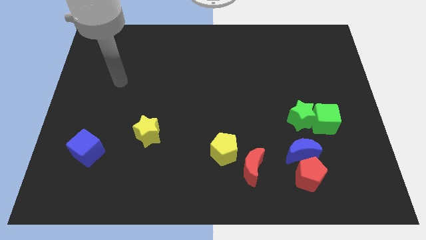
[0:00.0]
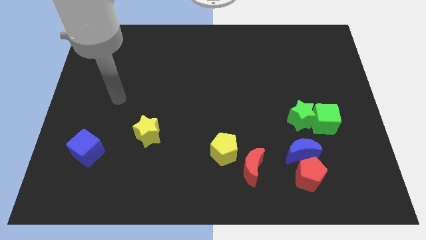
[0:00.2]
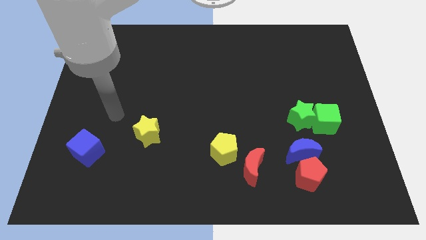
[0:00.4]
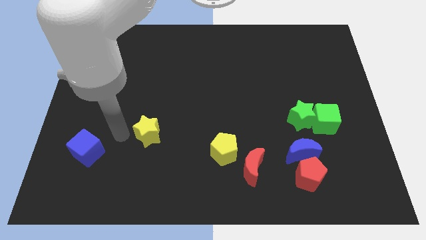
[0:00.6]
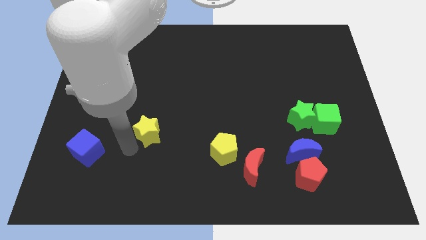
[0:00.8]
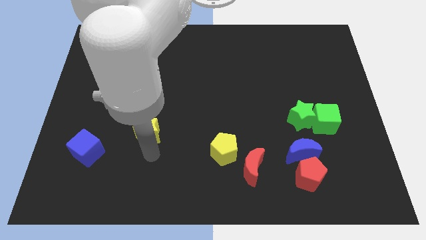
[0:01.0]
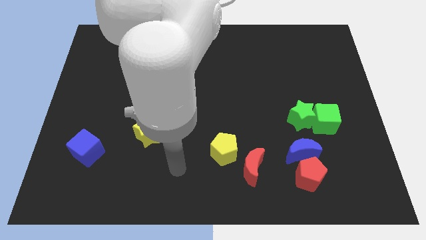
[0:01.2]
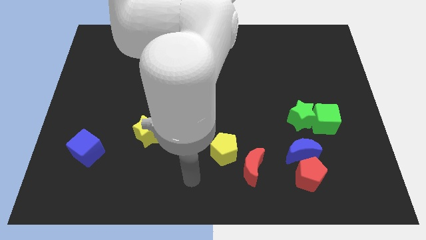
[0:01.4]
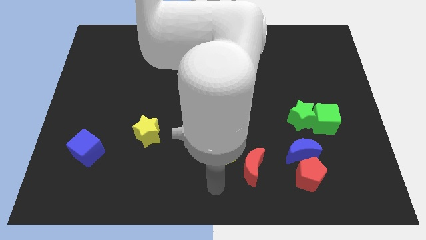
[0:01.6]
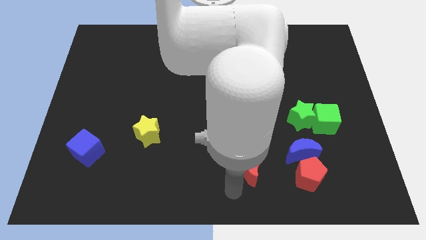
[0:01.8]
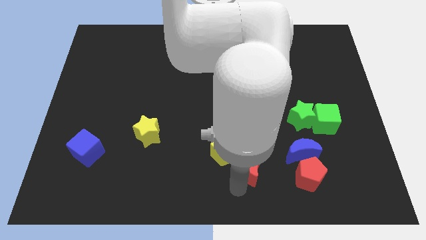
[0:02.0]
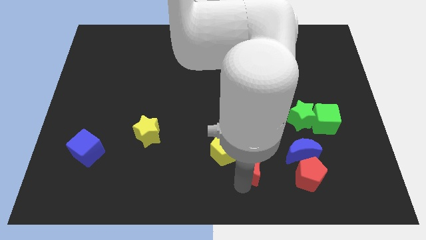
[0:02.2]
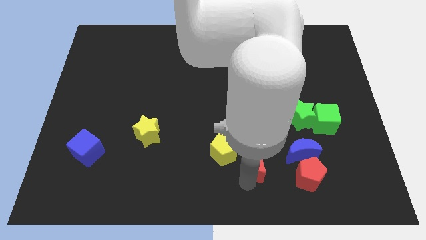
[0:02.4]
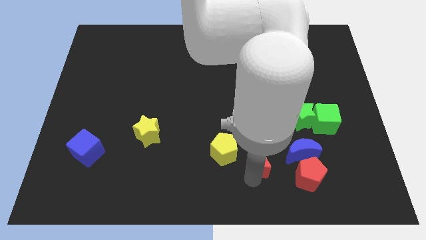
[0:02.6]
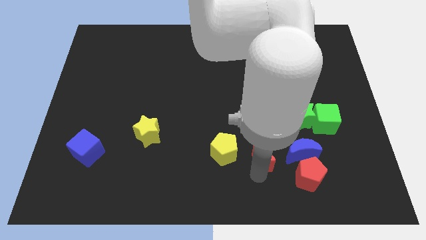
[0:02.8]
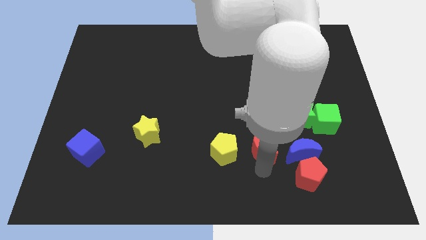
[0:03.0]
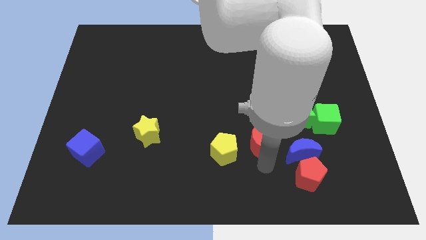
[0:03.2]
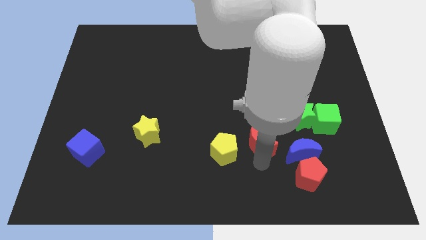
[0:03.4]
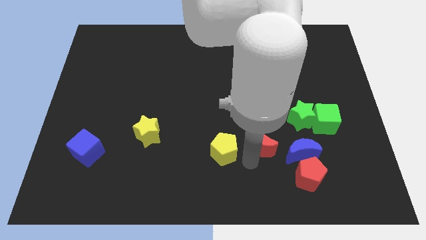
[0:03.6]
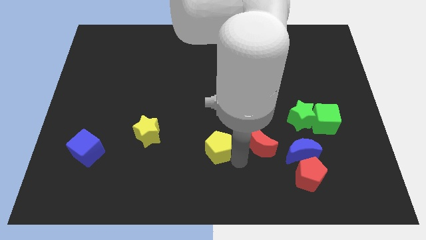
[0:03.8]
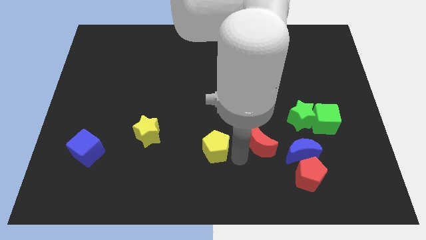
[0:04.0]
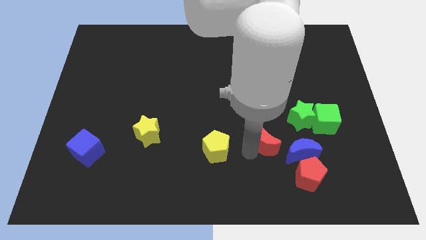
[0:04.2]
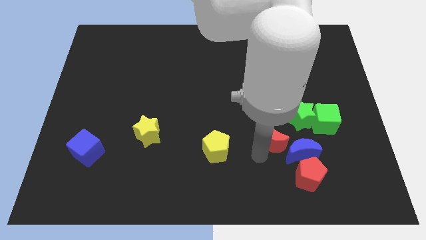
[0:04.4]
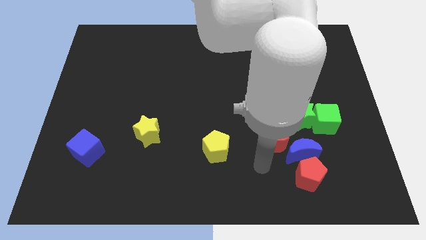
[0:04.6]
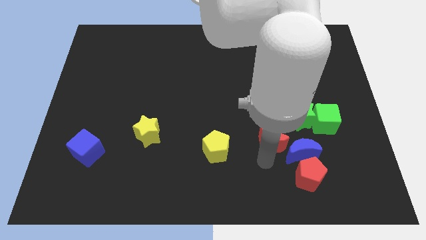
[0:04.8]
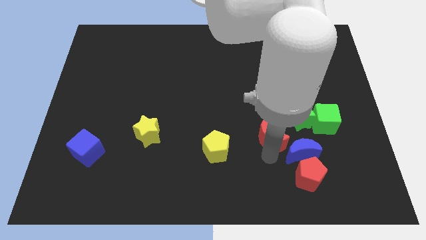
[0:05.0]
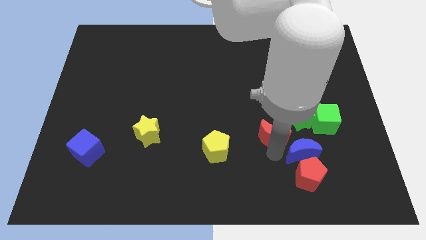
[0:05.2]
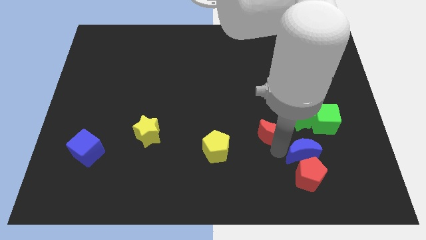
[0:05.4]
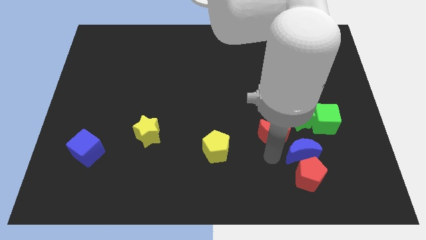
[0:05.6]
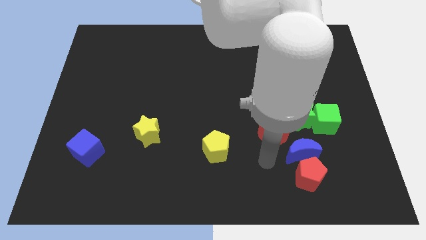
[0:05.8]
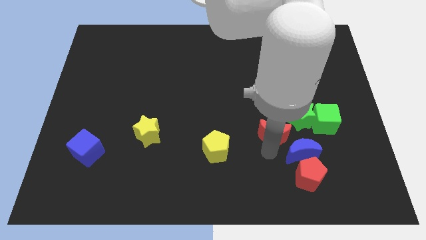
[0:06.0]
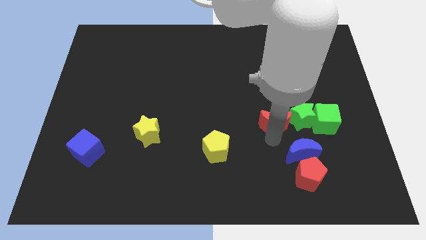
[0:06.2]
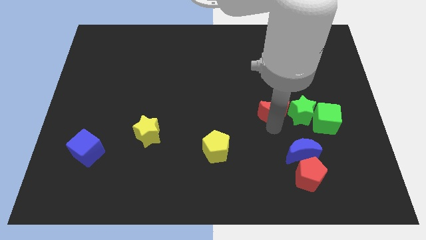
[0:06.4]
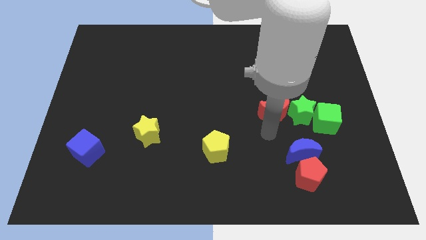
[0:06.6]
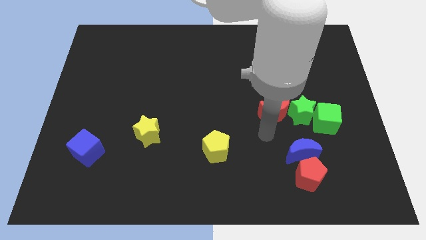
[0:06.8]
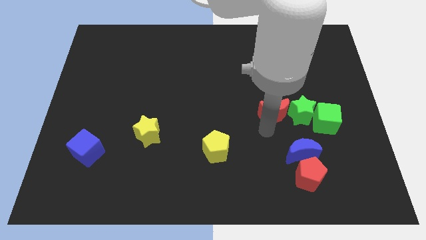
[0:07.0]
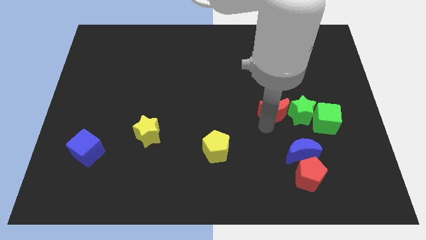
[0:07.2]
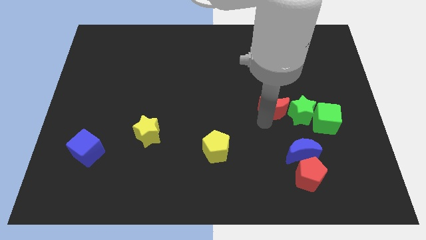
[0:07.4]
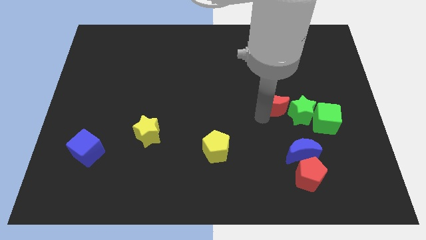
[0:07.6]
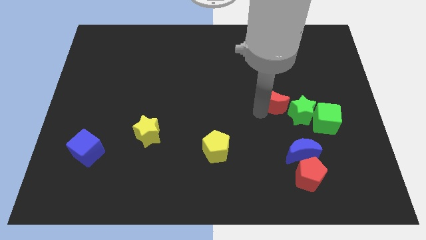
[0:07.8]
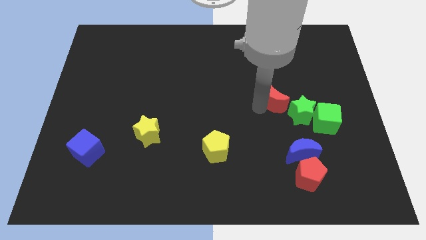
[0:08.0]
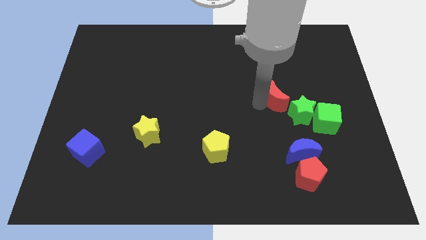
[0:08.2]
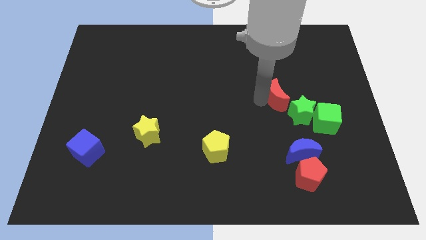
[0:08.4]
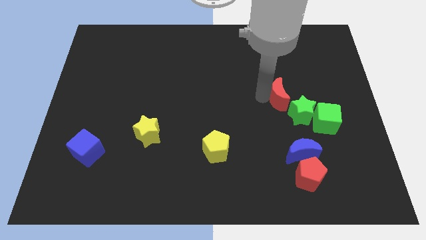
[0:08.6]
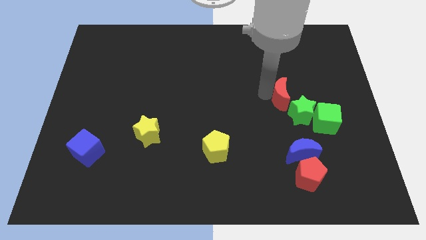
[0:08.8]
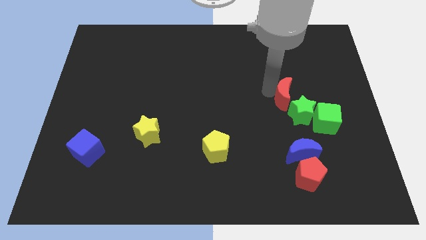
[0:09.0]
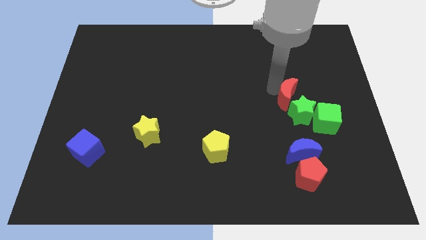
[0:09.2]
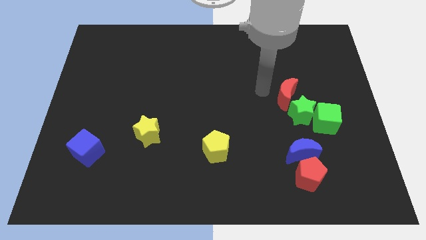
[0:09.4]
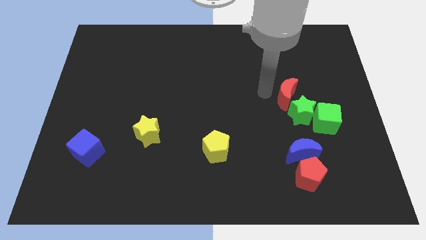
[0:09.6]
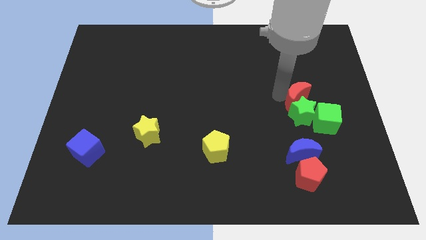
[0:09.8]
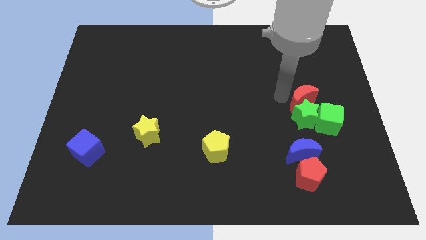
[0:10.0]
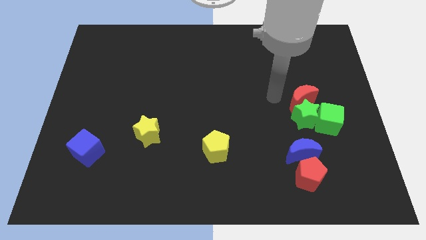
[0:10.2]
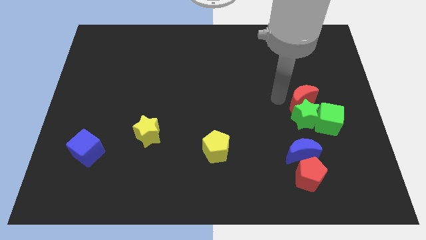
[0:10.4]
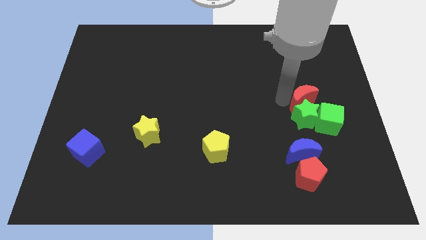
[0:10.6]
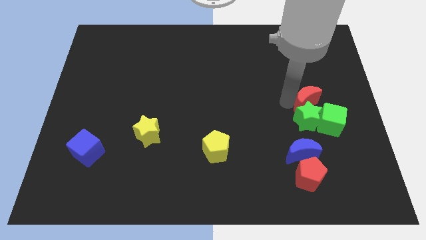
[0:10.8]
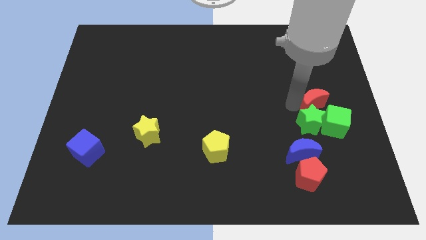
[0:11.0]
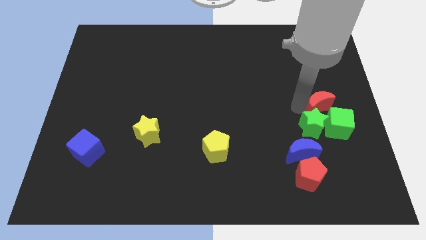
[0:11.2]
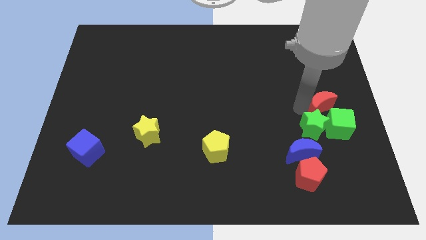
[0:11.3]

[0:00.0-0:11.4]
push the red moon to the right side
